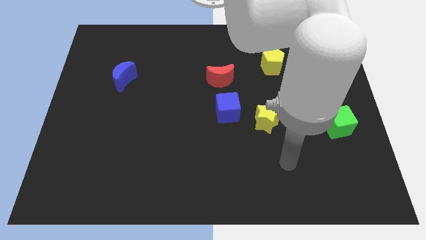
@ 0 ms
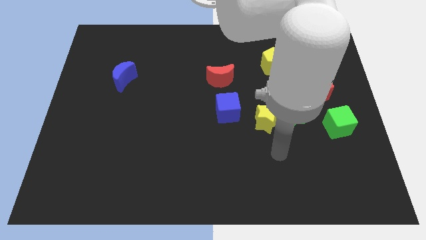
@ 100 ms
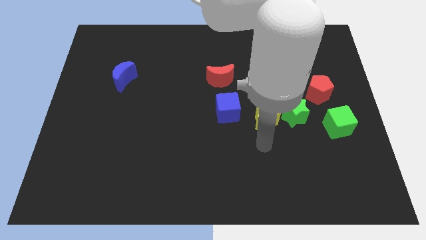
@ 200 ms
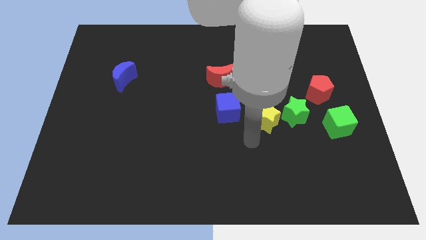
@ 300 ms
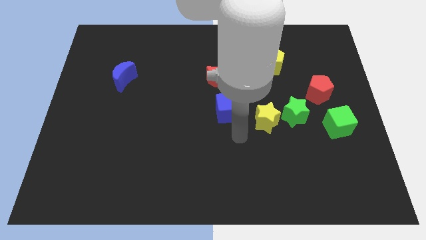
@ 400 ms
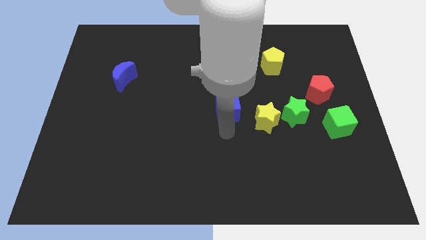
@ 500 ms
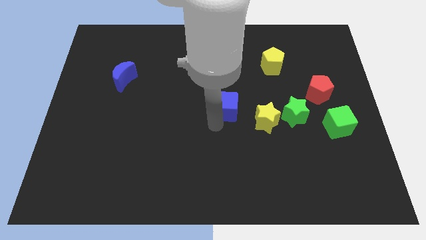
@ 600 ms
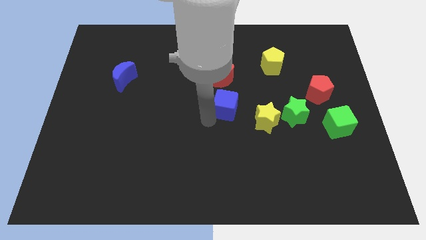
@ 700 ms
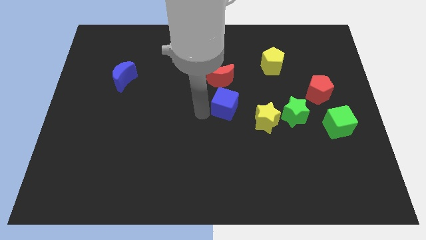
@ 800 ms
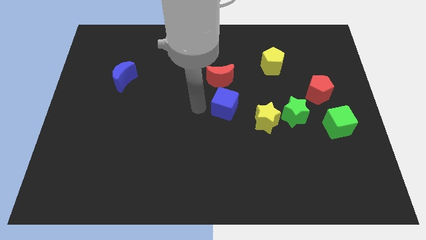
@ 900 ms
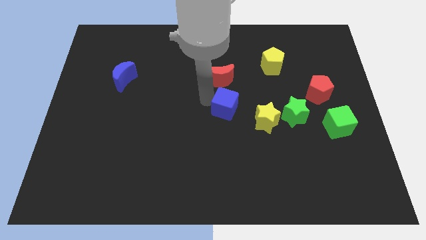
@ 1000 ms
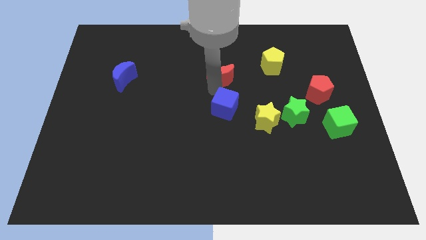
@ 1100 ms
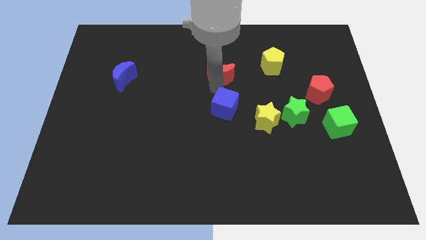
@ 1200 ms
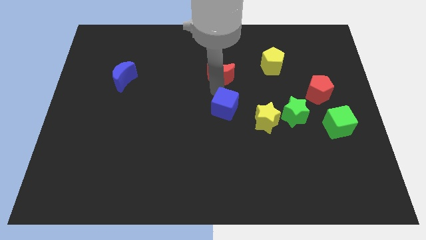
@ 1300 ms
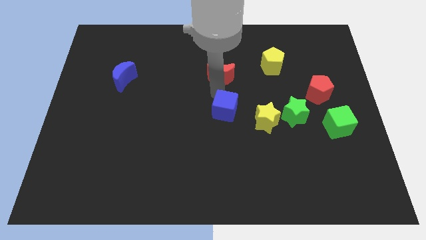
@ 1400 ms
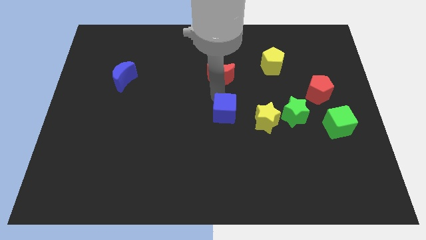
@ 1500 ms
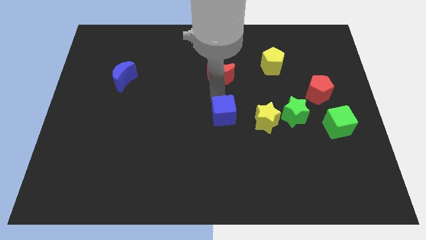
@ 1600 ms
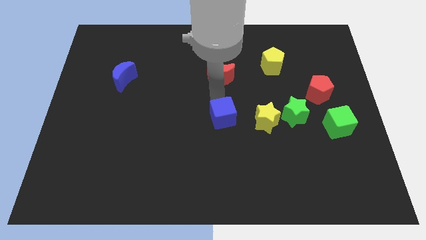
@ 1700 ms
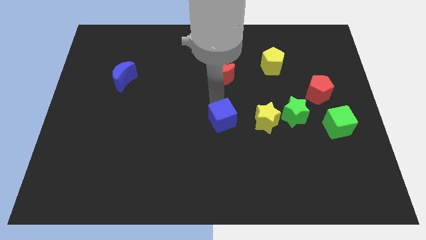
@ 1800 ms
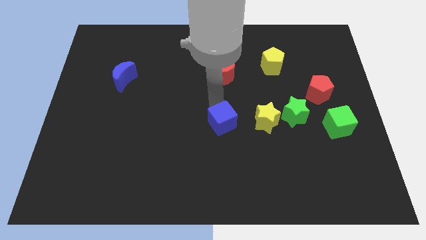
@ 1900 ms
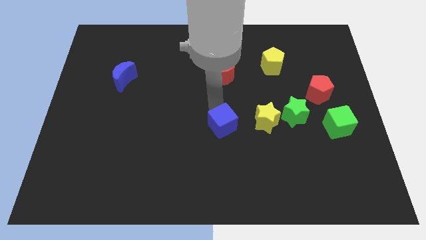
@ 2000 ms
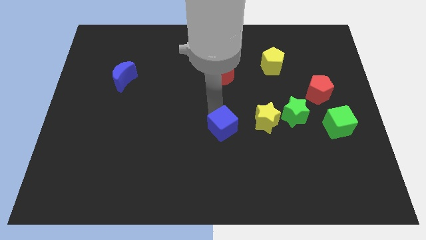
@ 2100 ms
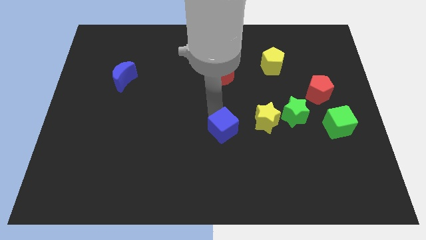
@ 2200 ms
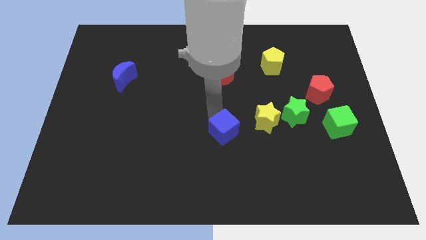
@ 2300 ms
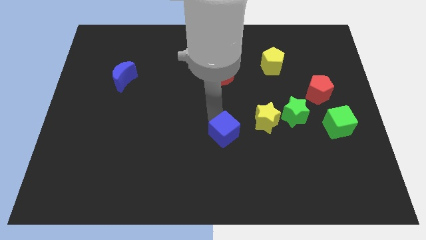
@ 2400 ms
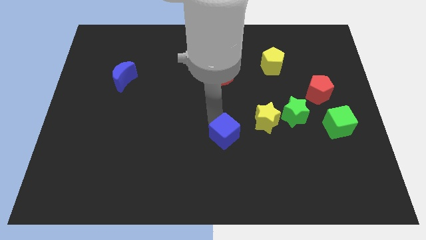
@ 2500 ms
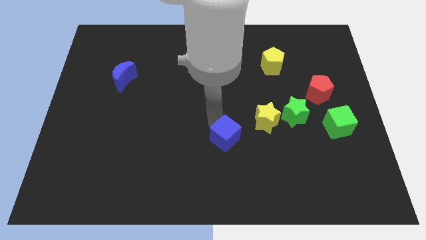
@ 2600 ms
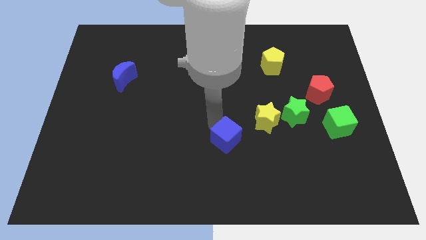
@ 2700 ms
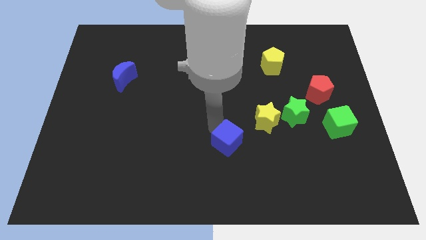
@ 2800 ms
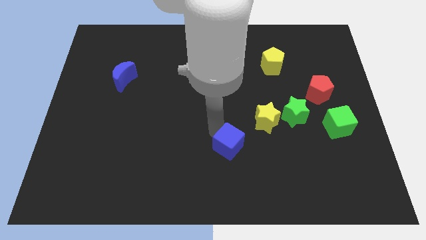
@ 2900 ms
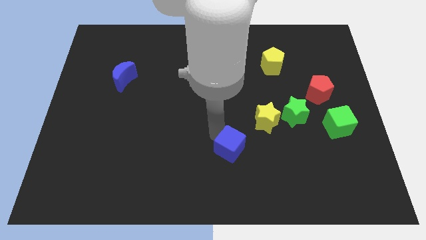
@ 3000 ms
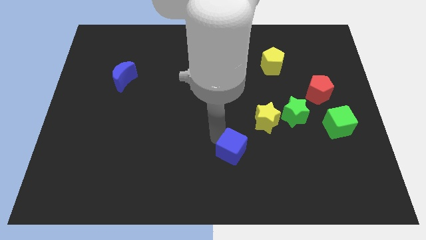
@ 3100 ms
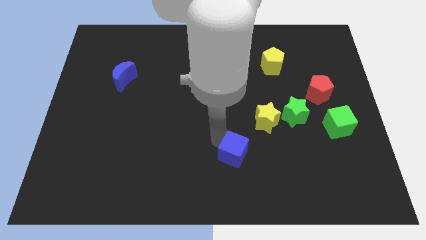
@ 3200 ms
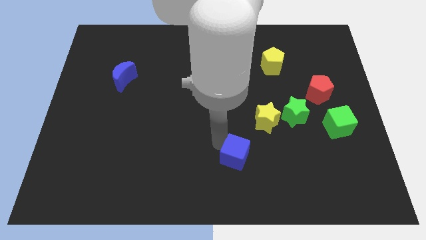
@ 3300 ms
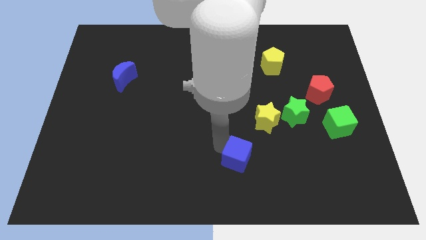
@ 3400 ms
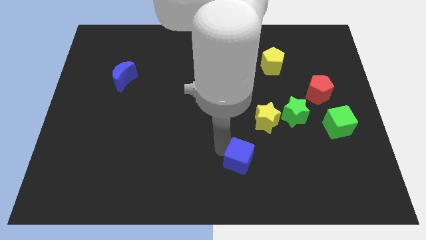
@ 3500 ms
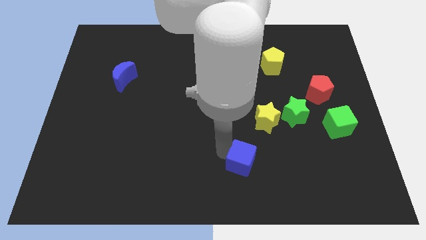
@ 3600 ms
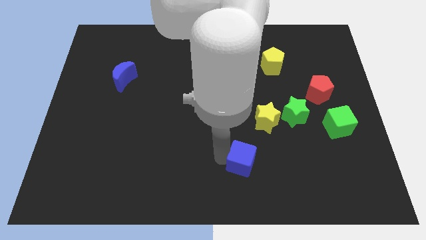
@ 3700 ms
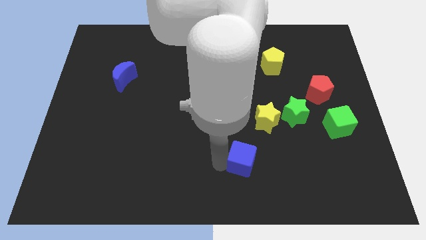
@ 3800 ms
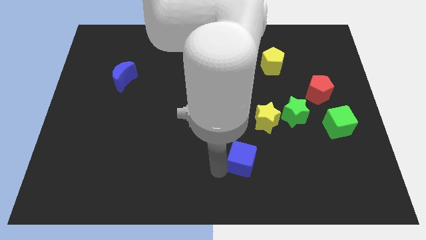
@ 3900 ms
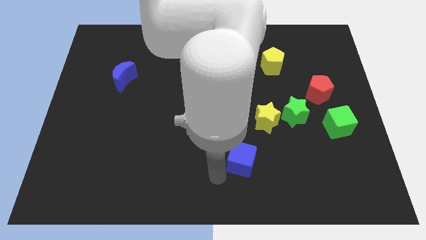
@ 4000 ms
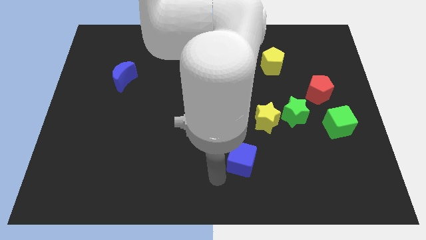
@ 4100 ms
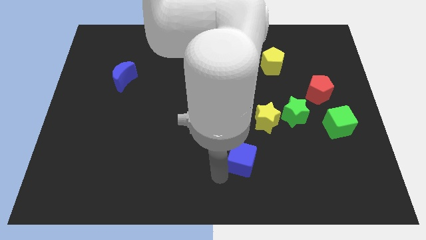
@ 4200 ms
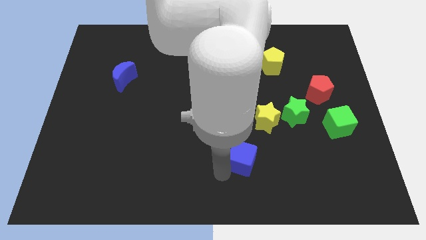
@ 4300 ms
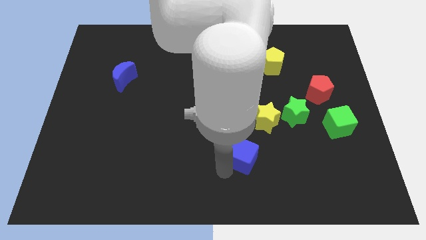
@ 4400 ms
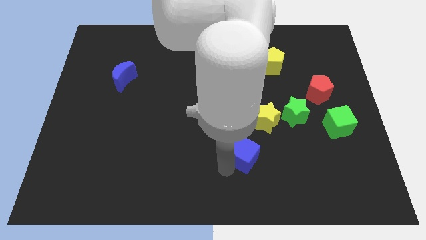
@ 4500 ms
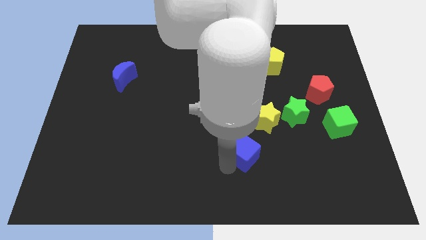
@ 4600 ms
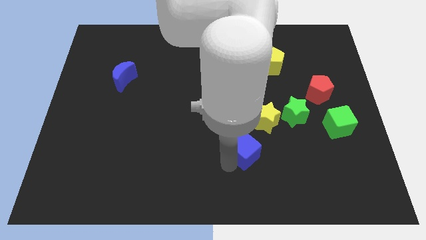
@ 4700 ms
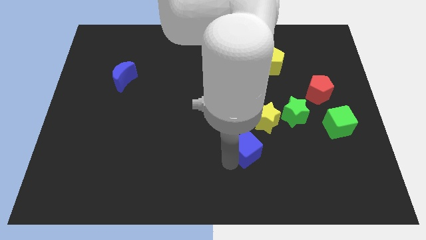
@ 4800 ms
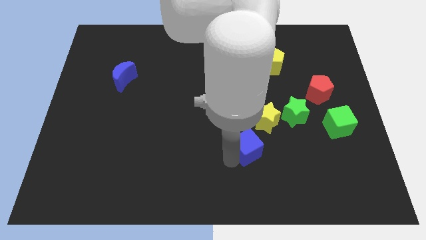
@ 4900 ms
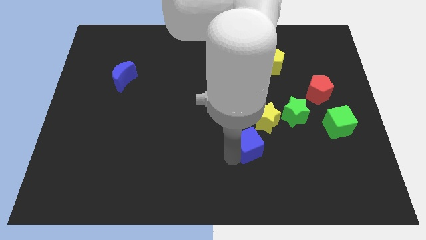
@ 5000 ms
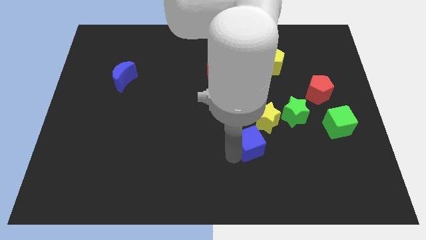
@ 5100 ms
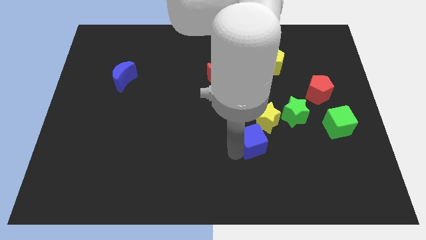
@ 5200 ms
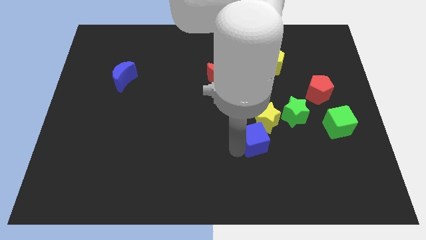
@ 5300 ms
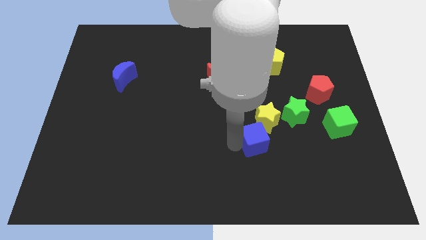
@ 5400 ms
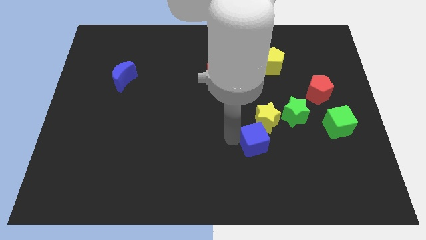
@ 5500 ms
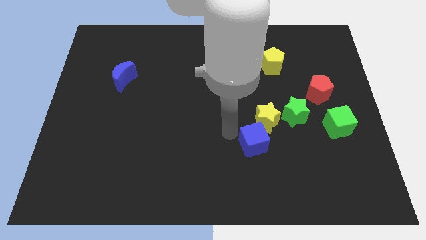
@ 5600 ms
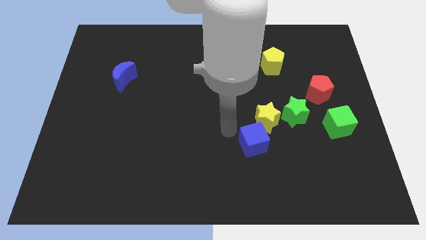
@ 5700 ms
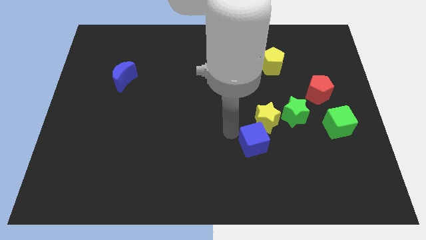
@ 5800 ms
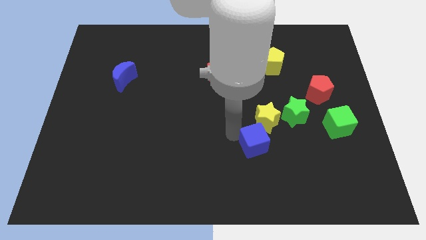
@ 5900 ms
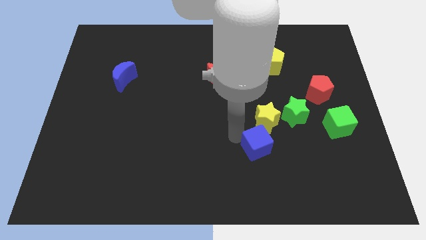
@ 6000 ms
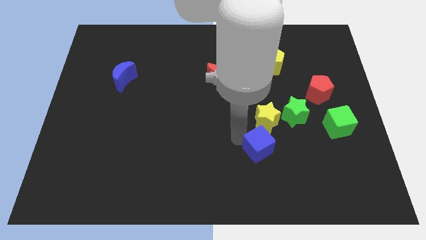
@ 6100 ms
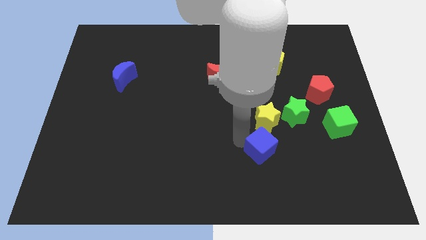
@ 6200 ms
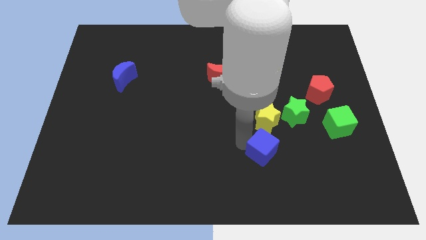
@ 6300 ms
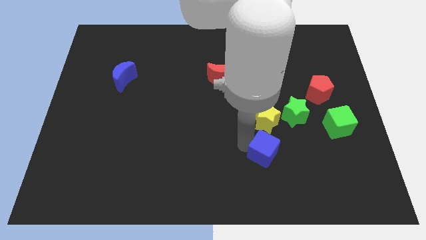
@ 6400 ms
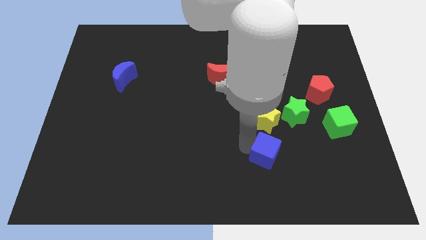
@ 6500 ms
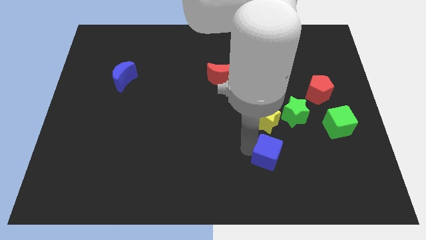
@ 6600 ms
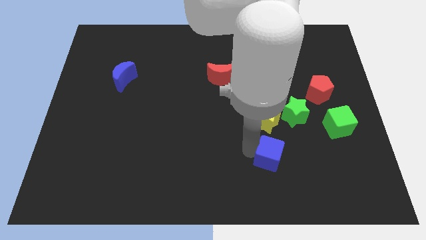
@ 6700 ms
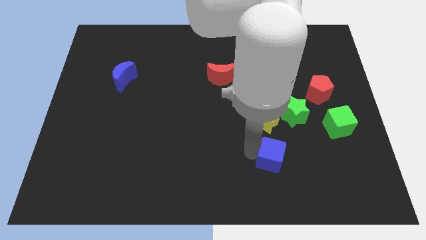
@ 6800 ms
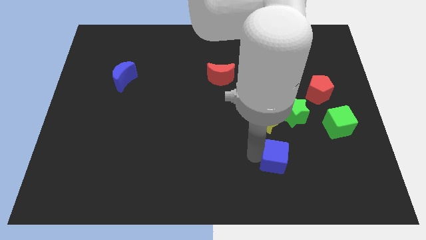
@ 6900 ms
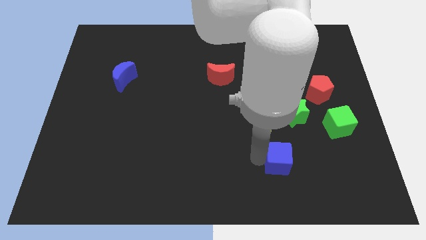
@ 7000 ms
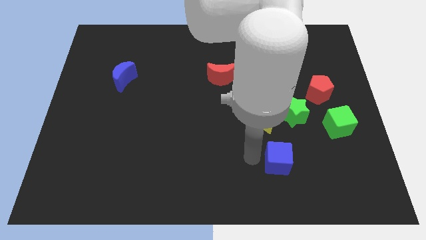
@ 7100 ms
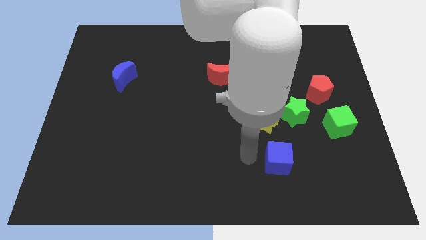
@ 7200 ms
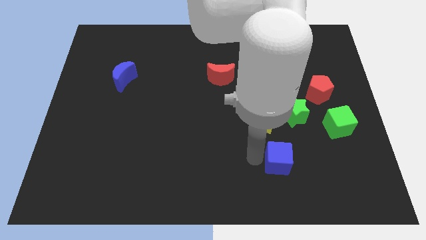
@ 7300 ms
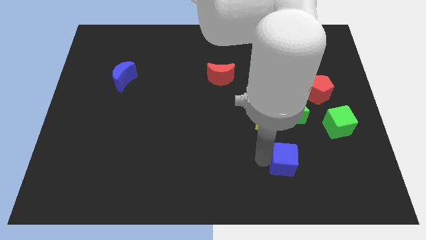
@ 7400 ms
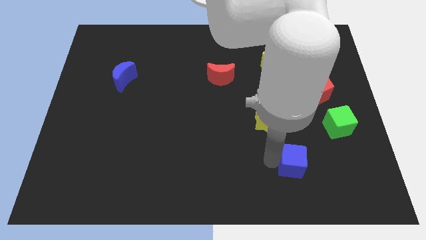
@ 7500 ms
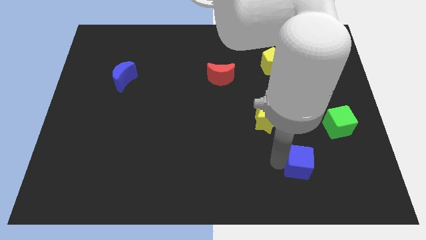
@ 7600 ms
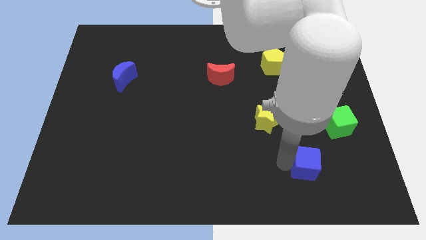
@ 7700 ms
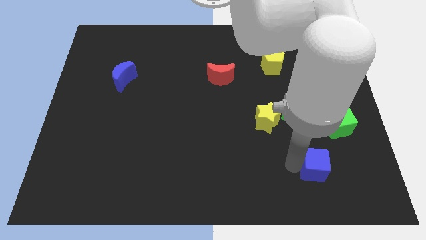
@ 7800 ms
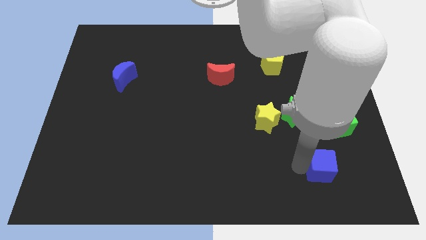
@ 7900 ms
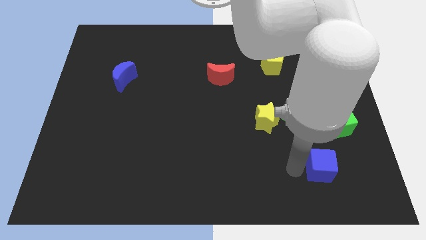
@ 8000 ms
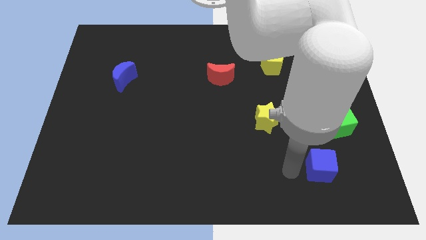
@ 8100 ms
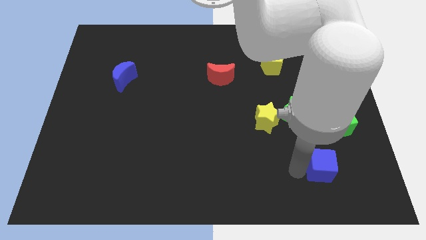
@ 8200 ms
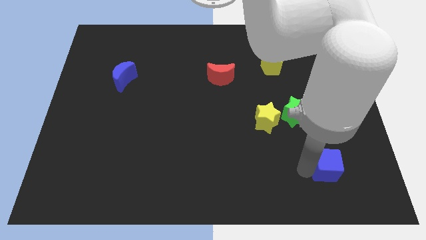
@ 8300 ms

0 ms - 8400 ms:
slide the blue cube below the green cube
